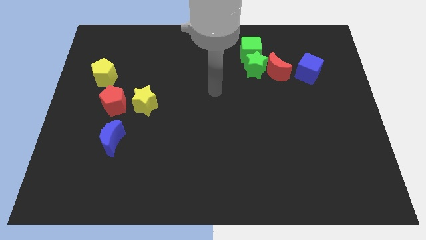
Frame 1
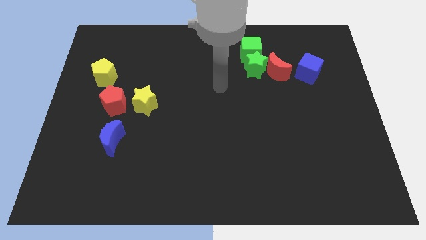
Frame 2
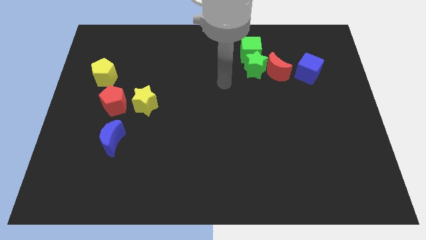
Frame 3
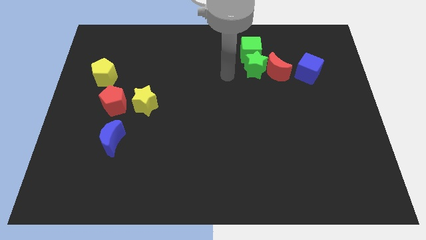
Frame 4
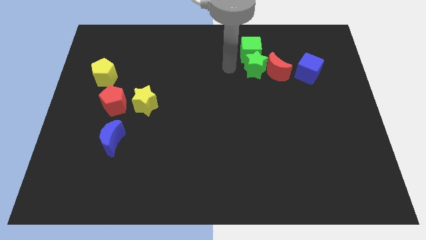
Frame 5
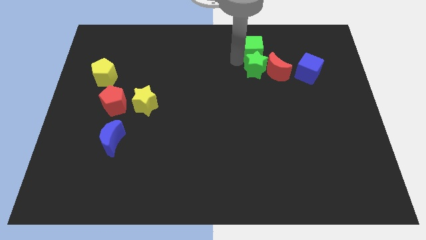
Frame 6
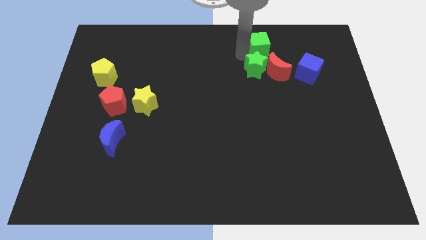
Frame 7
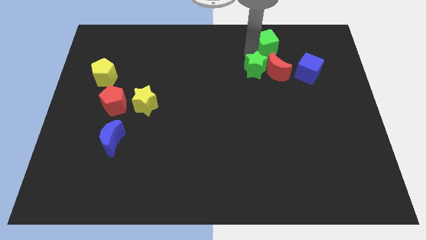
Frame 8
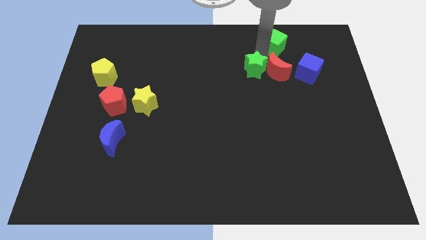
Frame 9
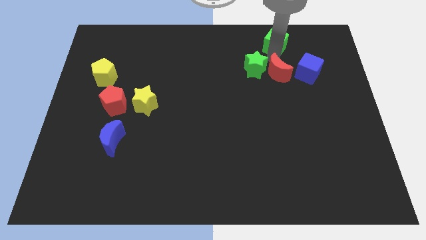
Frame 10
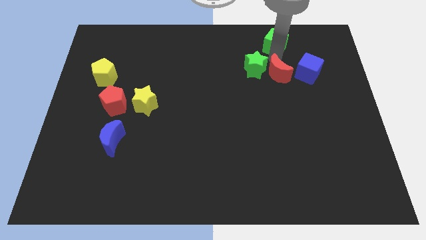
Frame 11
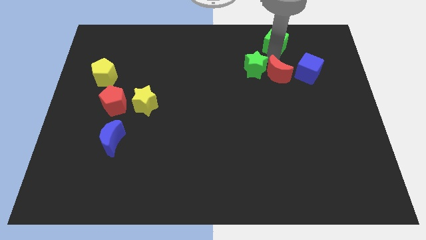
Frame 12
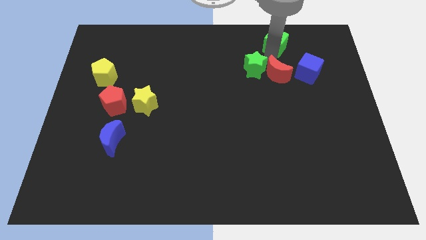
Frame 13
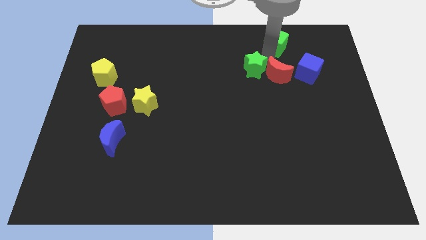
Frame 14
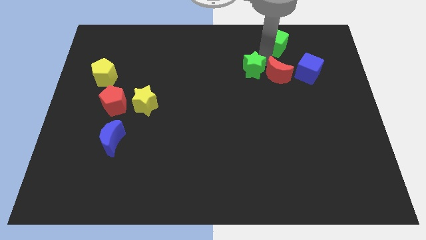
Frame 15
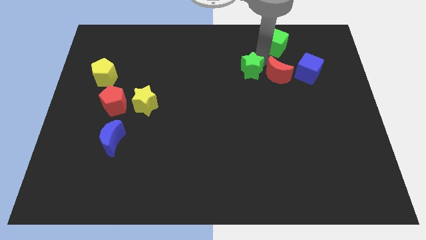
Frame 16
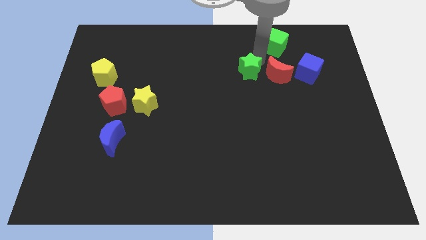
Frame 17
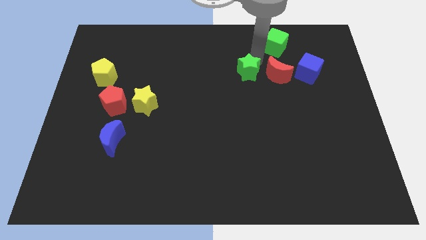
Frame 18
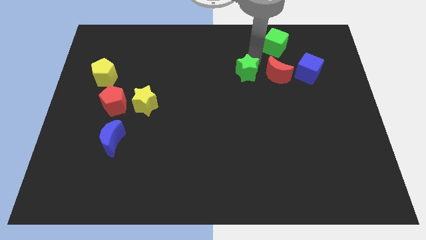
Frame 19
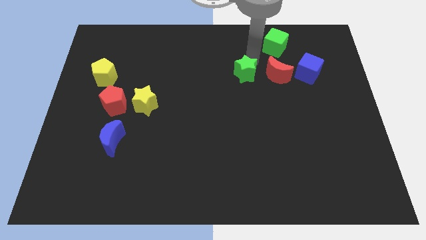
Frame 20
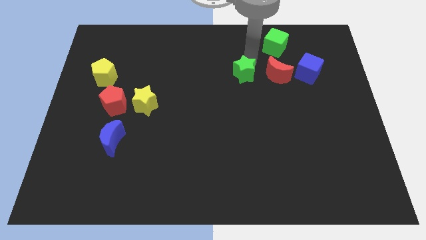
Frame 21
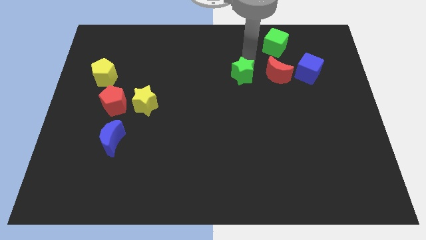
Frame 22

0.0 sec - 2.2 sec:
separate the green star from the red moon and green cube

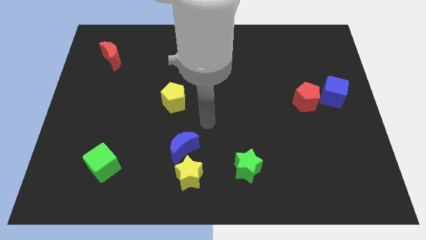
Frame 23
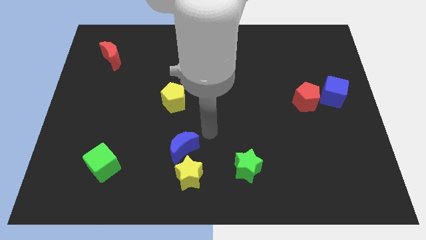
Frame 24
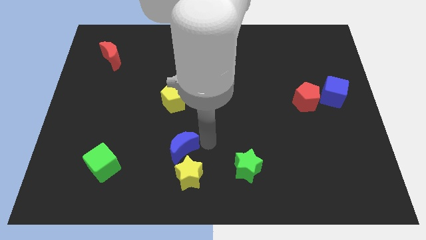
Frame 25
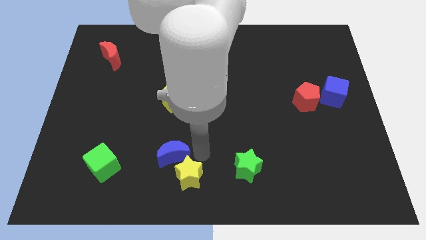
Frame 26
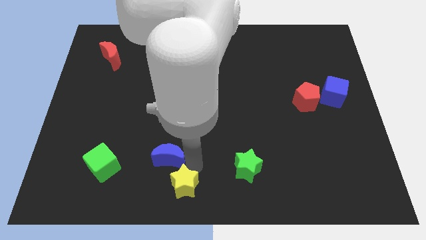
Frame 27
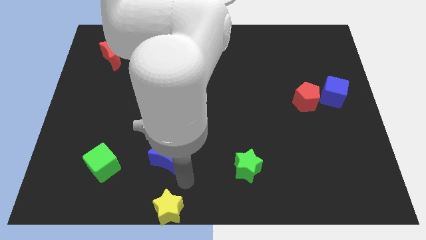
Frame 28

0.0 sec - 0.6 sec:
move the blue moon away from the yellow star

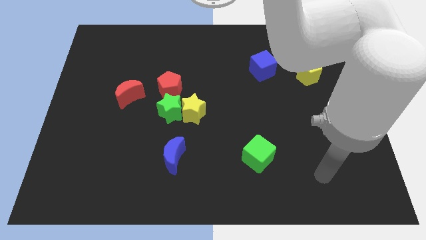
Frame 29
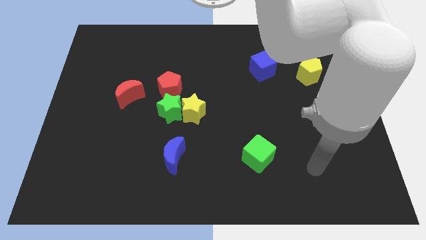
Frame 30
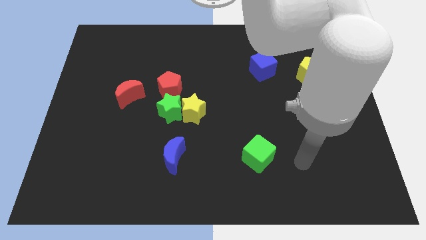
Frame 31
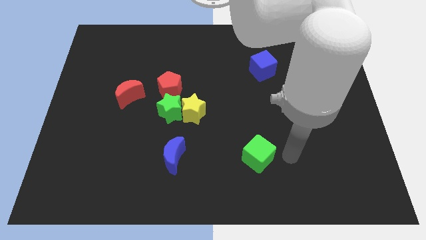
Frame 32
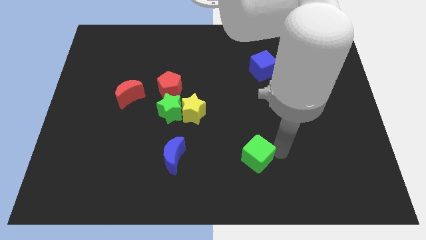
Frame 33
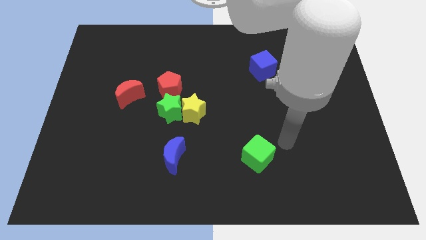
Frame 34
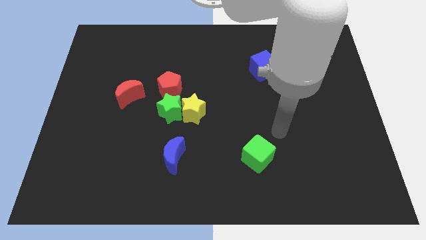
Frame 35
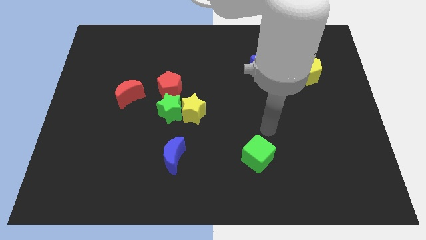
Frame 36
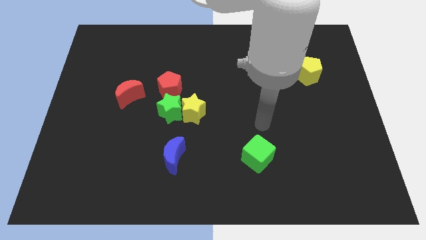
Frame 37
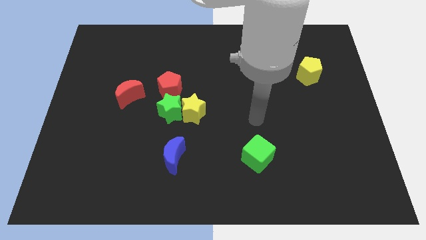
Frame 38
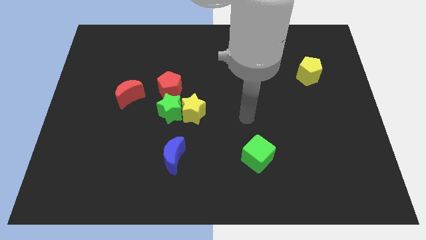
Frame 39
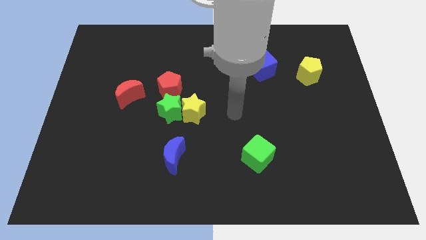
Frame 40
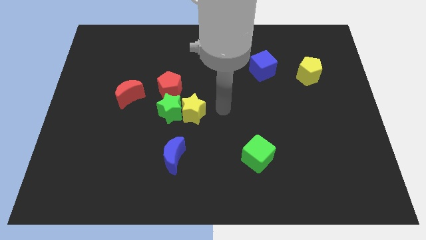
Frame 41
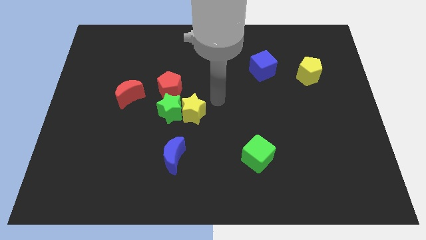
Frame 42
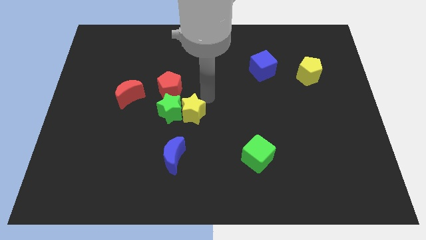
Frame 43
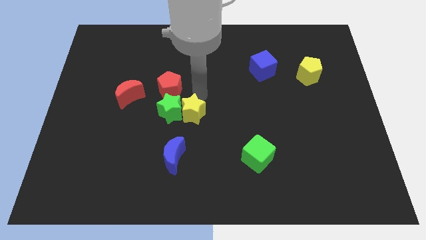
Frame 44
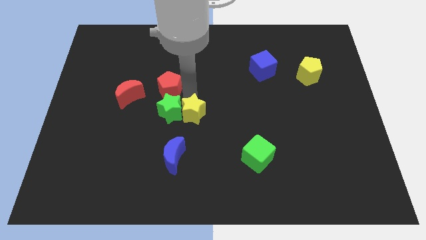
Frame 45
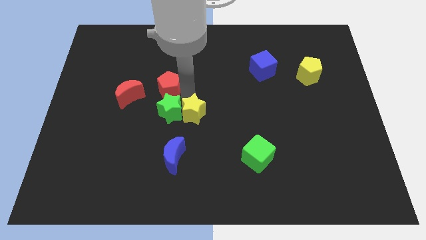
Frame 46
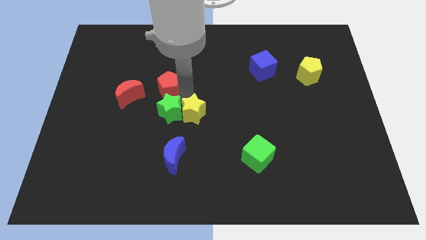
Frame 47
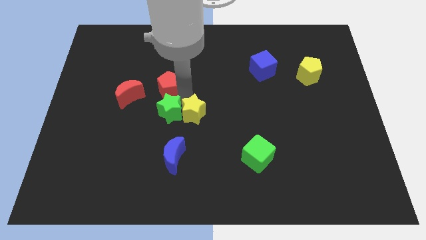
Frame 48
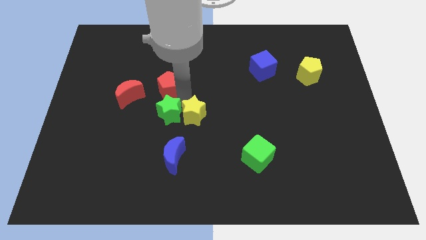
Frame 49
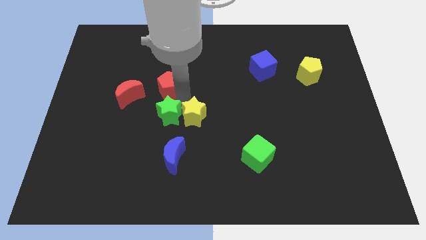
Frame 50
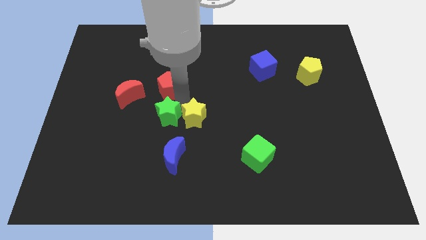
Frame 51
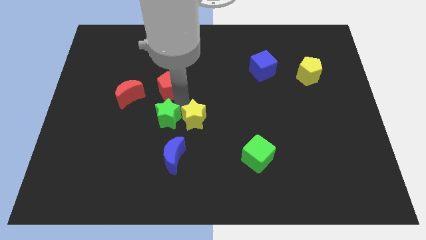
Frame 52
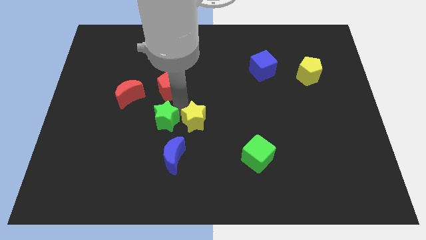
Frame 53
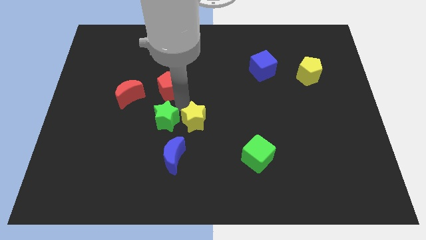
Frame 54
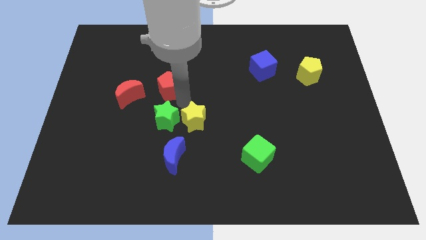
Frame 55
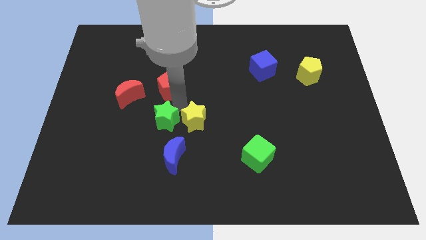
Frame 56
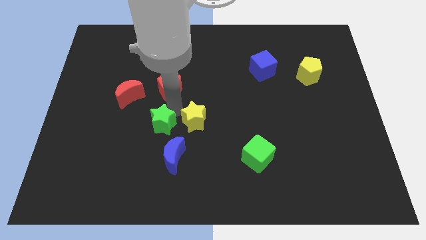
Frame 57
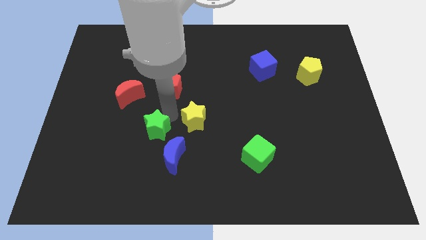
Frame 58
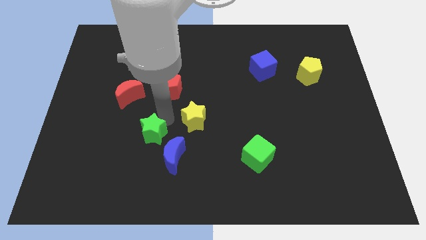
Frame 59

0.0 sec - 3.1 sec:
move the green star away from the yellow star and red pentagon

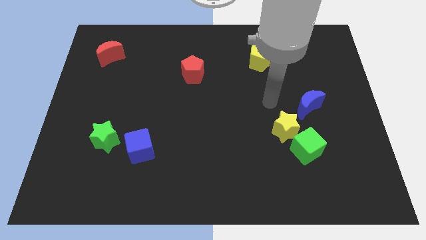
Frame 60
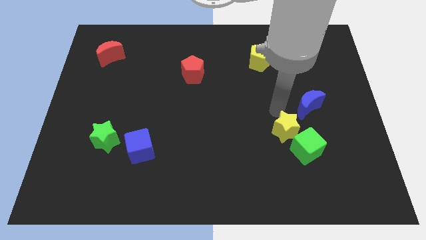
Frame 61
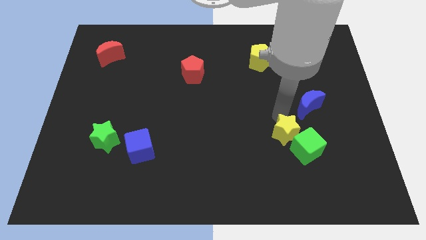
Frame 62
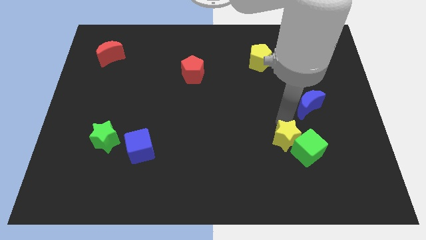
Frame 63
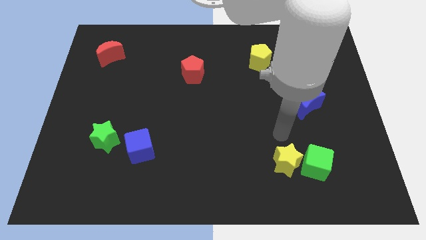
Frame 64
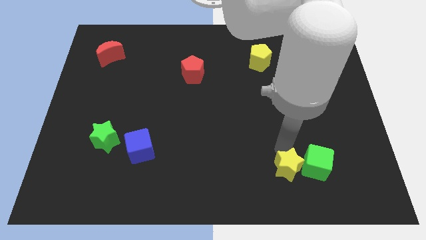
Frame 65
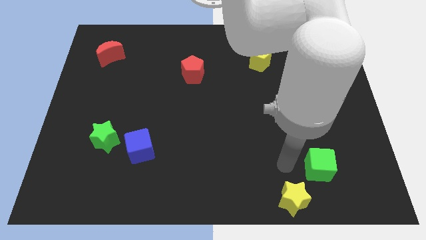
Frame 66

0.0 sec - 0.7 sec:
pull the green cube apart from the yellow star

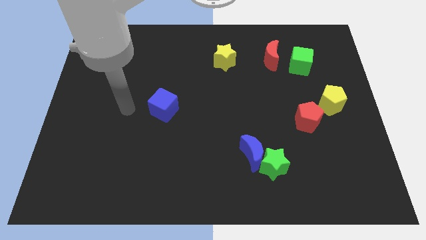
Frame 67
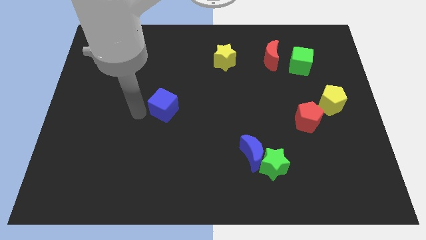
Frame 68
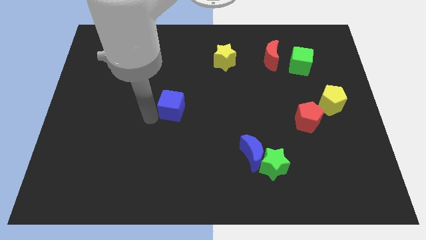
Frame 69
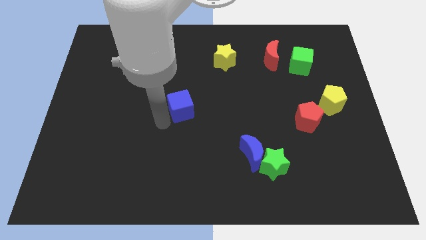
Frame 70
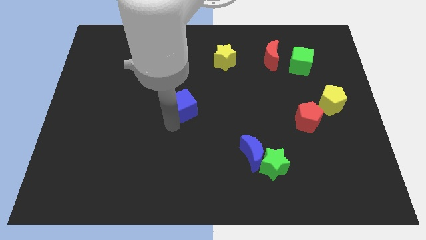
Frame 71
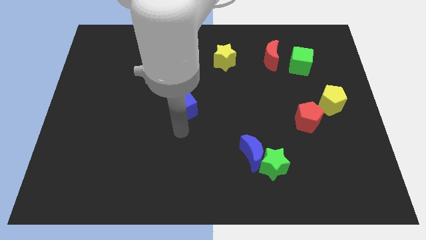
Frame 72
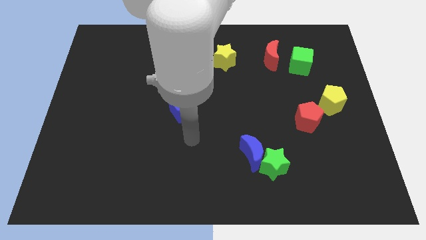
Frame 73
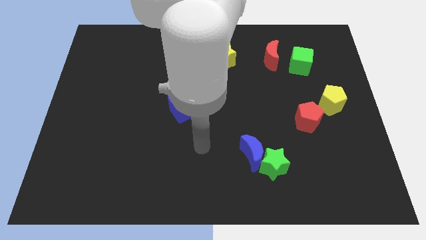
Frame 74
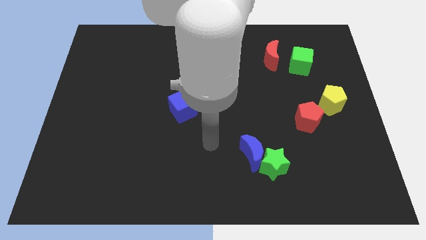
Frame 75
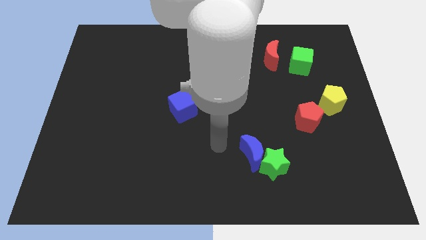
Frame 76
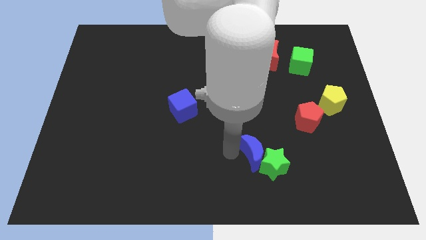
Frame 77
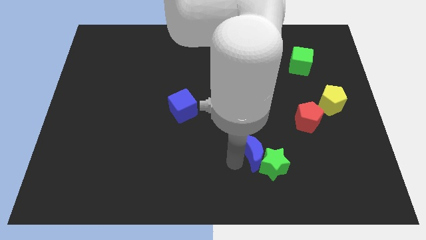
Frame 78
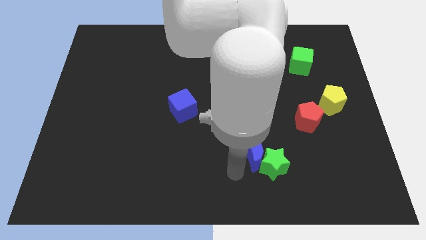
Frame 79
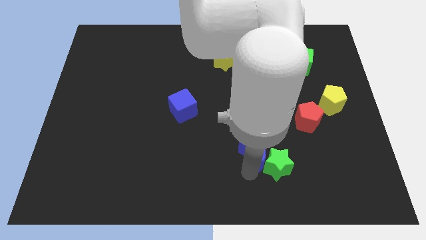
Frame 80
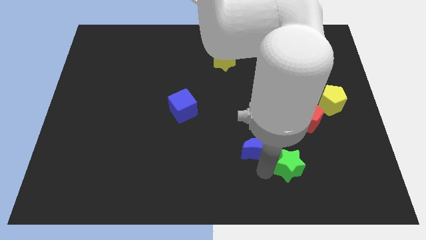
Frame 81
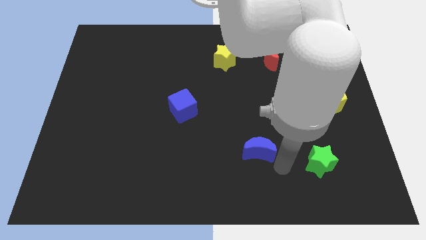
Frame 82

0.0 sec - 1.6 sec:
pull the blue moon apart from the green star

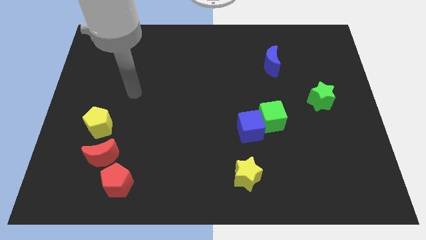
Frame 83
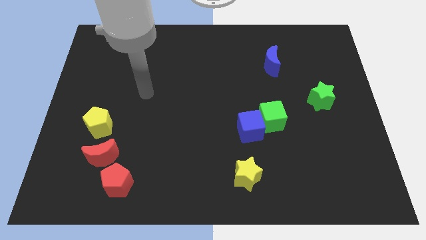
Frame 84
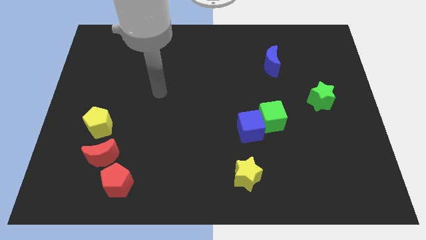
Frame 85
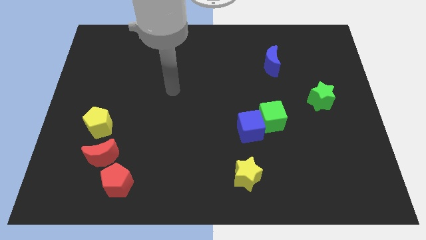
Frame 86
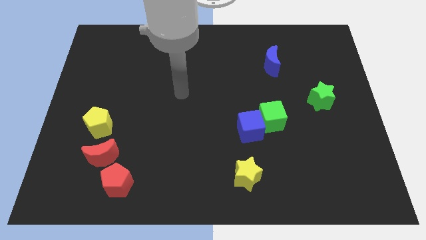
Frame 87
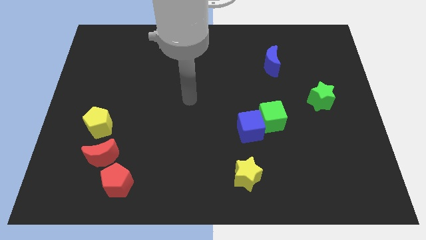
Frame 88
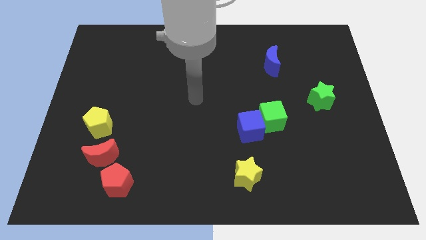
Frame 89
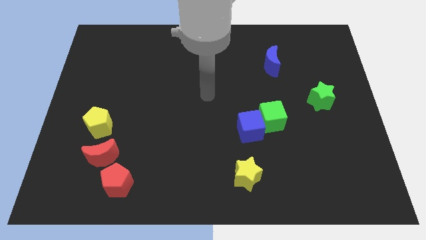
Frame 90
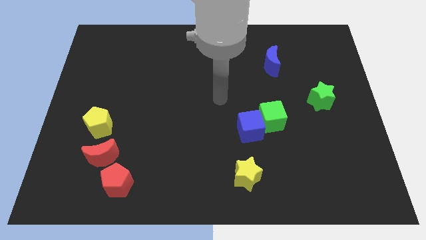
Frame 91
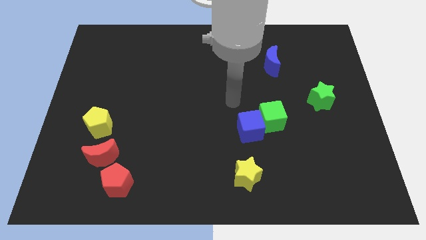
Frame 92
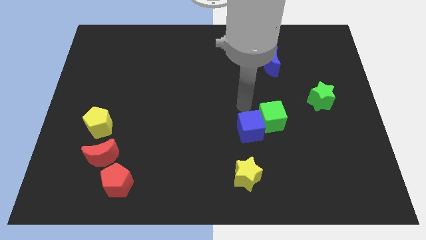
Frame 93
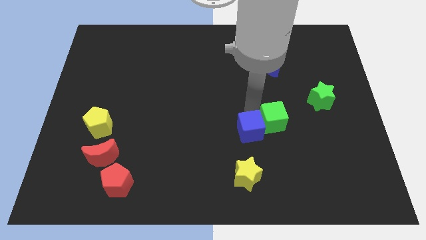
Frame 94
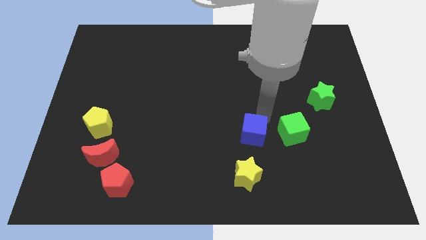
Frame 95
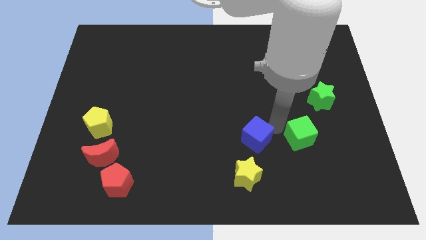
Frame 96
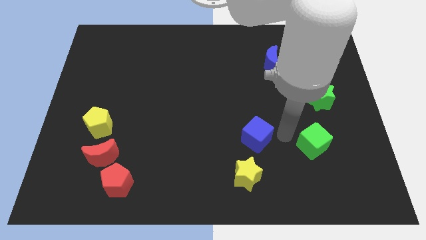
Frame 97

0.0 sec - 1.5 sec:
pull the blue cube apart from the green cube
